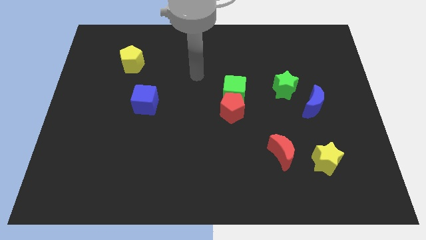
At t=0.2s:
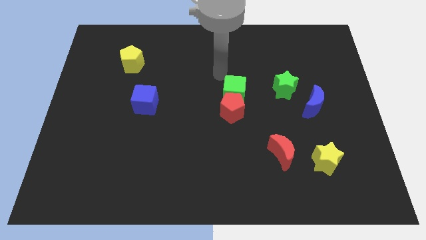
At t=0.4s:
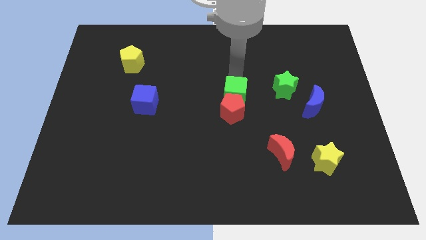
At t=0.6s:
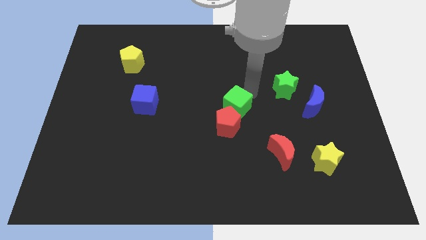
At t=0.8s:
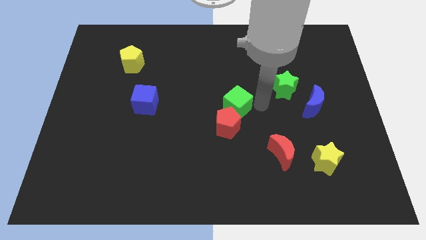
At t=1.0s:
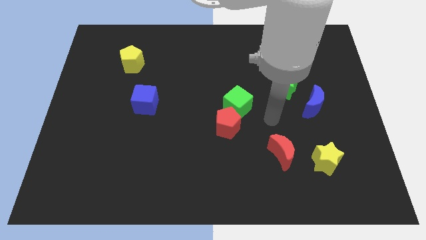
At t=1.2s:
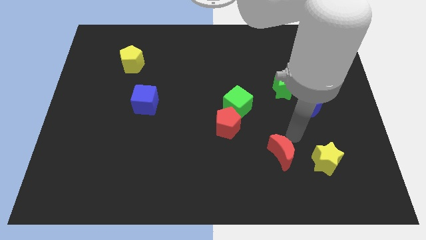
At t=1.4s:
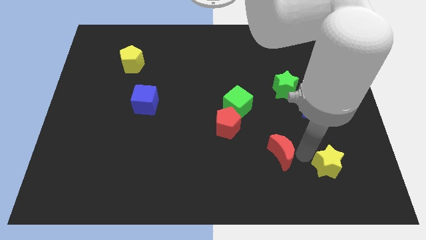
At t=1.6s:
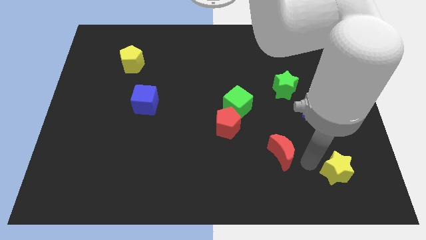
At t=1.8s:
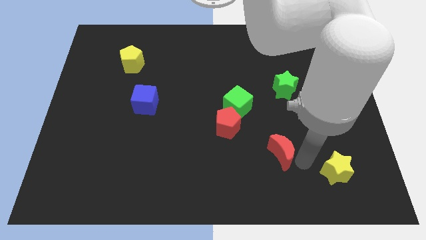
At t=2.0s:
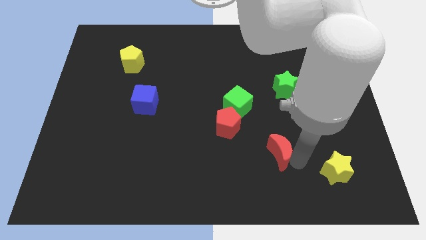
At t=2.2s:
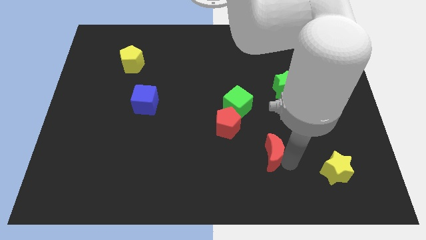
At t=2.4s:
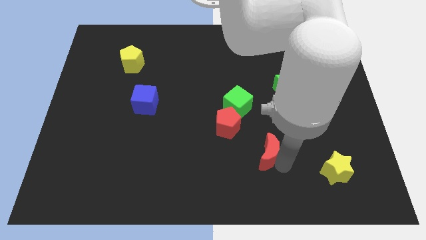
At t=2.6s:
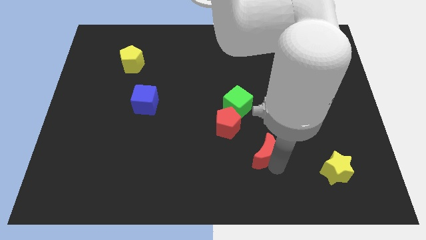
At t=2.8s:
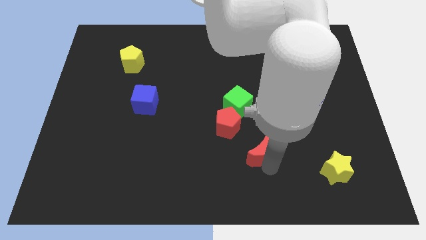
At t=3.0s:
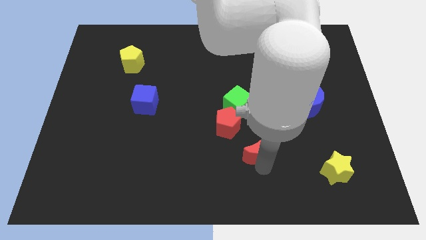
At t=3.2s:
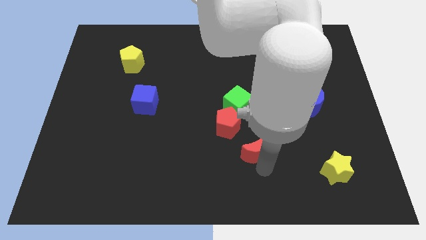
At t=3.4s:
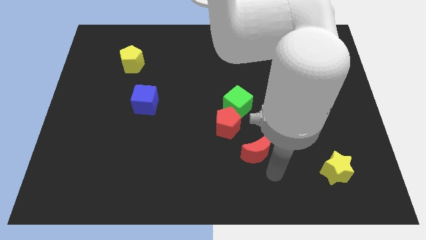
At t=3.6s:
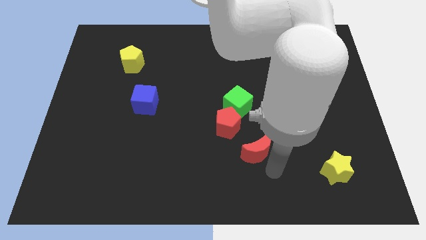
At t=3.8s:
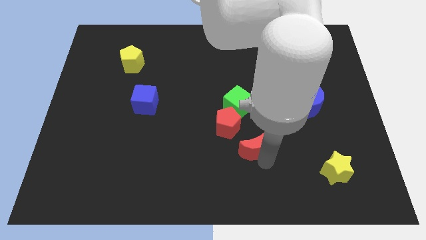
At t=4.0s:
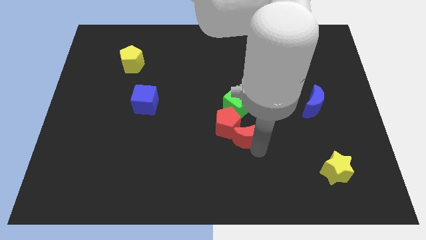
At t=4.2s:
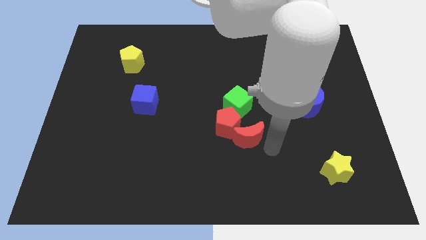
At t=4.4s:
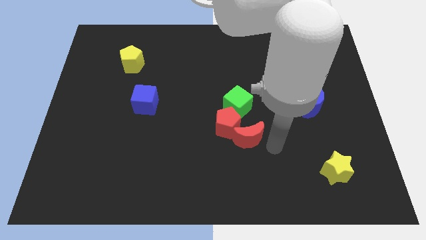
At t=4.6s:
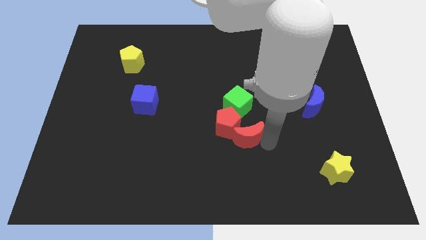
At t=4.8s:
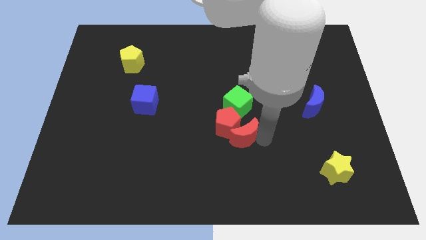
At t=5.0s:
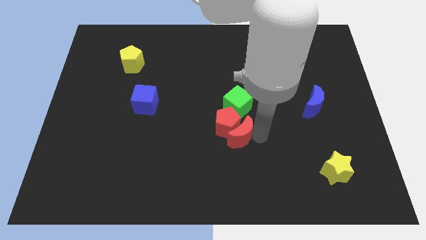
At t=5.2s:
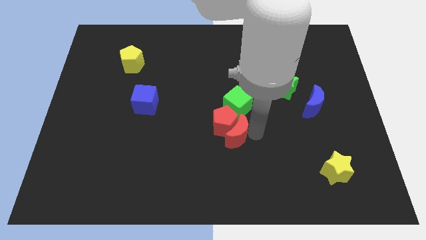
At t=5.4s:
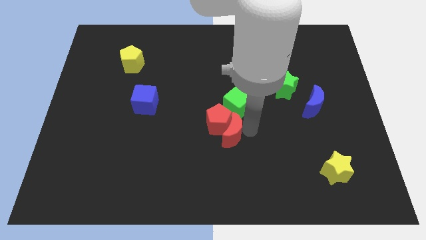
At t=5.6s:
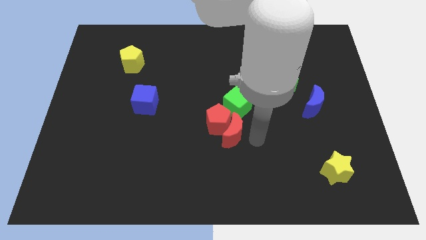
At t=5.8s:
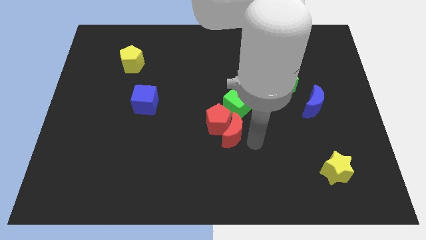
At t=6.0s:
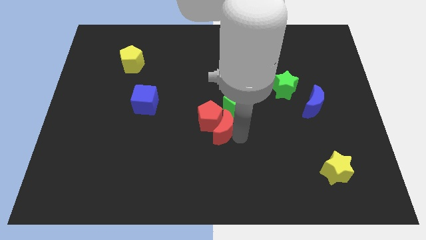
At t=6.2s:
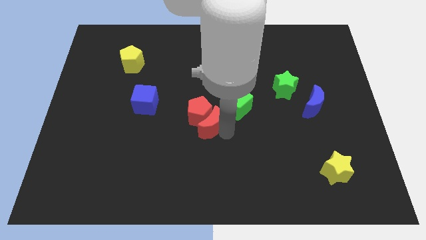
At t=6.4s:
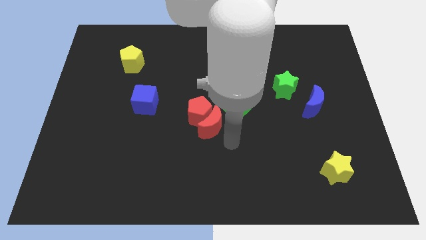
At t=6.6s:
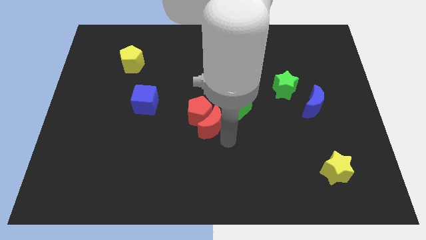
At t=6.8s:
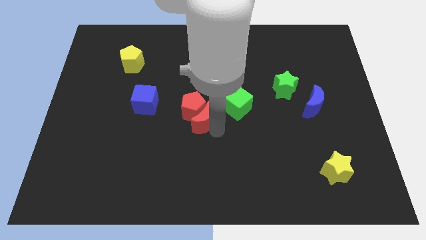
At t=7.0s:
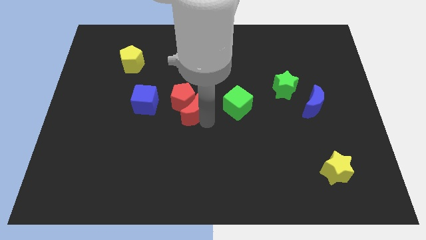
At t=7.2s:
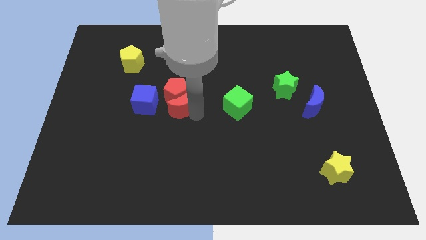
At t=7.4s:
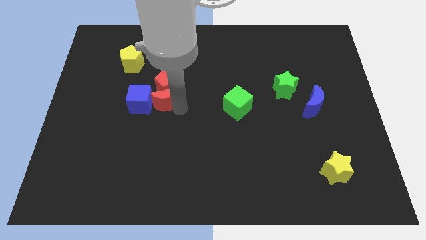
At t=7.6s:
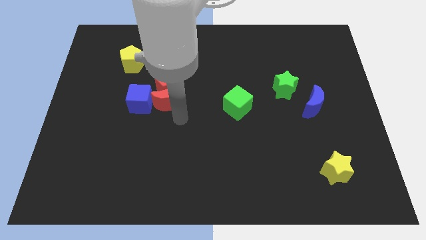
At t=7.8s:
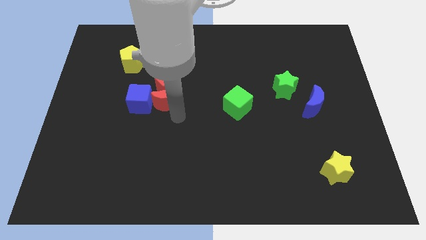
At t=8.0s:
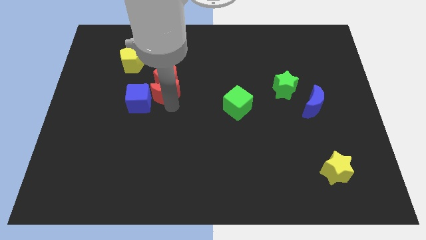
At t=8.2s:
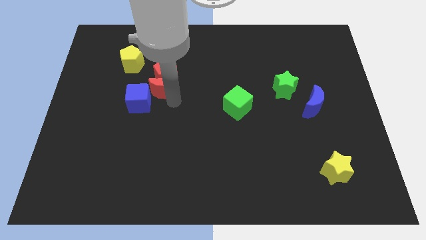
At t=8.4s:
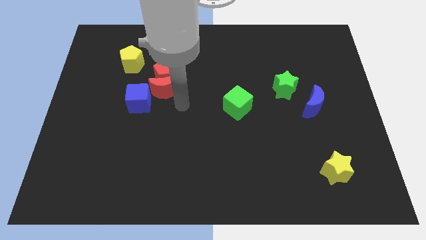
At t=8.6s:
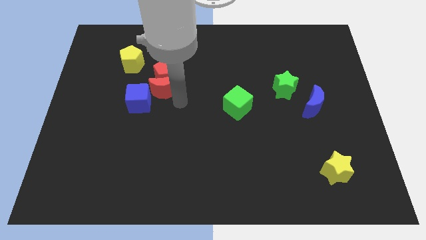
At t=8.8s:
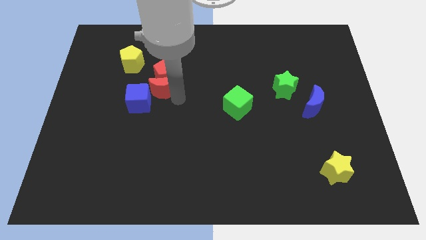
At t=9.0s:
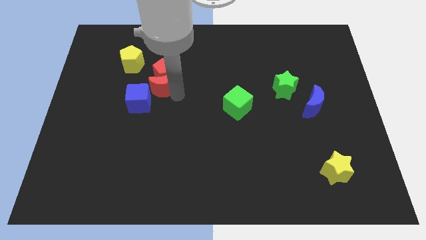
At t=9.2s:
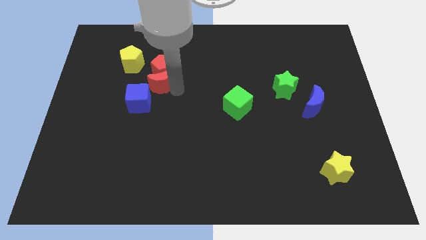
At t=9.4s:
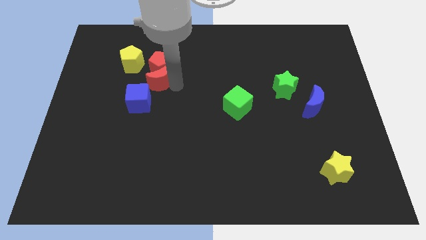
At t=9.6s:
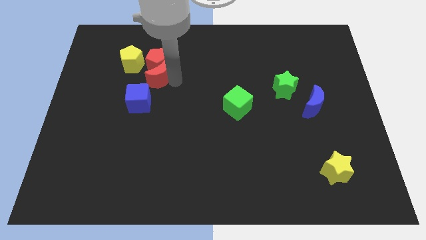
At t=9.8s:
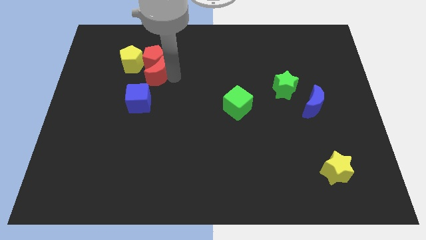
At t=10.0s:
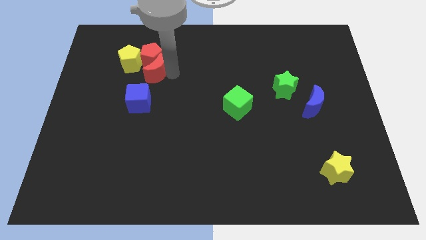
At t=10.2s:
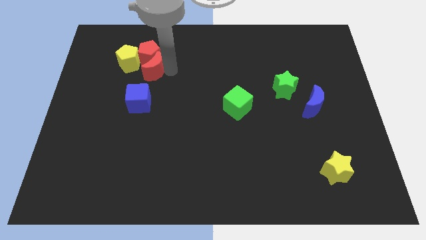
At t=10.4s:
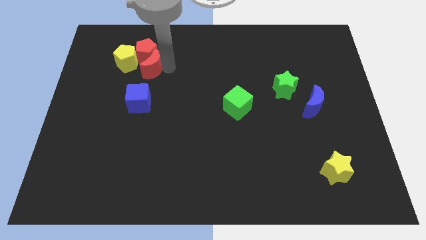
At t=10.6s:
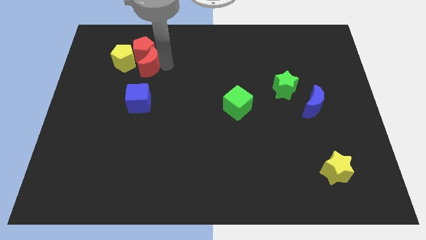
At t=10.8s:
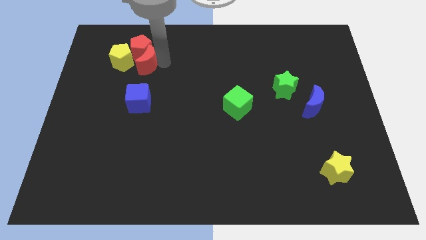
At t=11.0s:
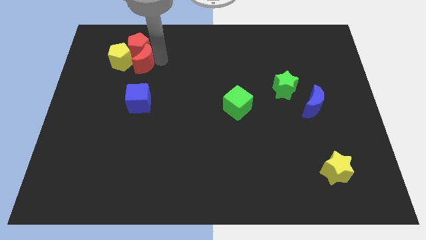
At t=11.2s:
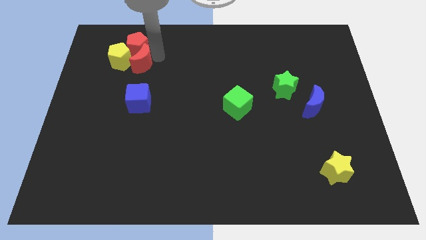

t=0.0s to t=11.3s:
move the red moon towards the yellow pentagon
